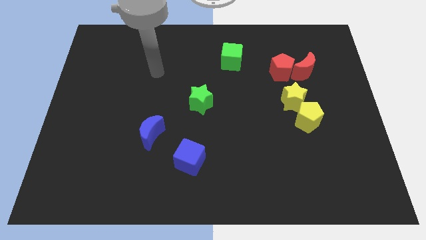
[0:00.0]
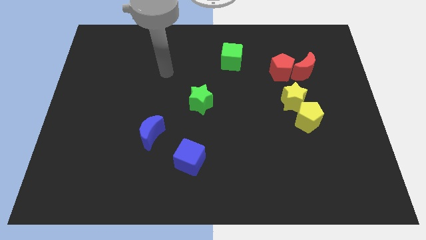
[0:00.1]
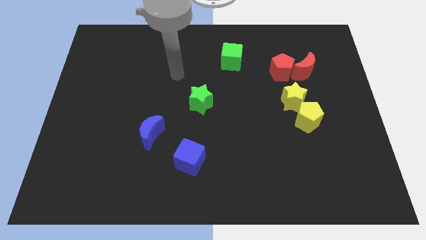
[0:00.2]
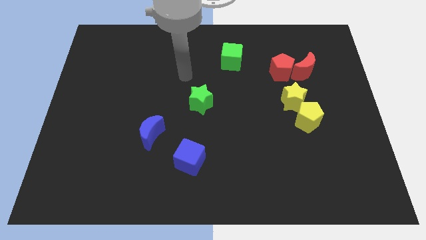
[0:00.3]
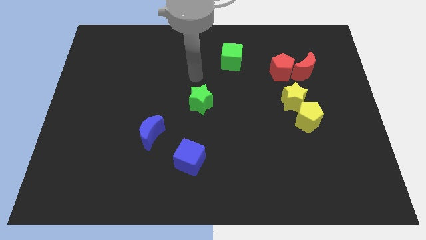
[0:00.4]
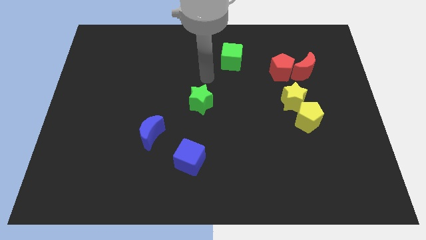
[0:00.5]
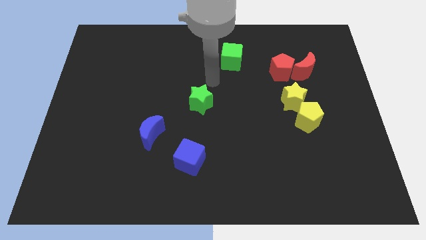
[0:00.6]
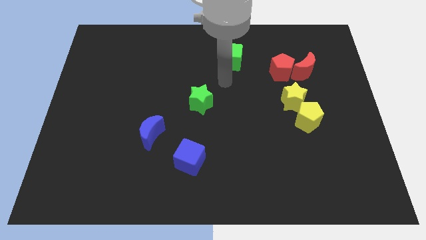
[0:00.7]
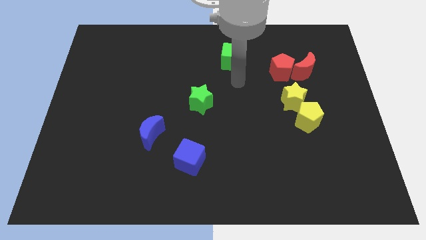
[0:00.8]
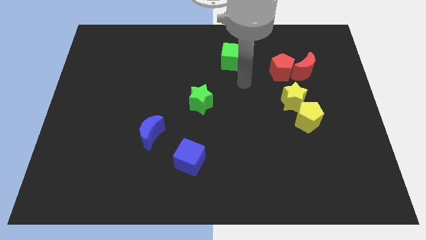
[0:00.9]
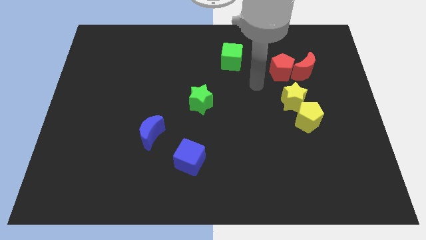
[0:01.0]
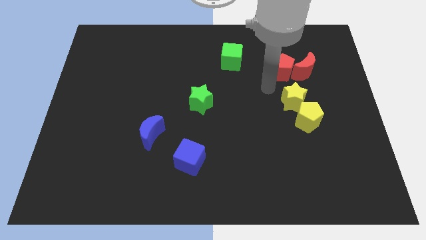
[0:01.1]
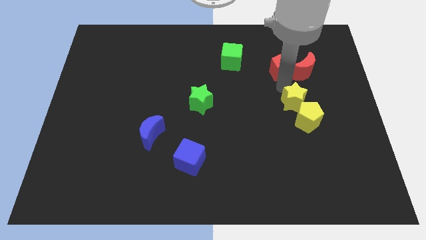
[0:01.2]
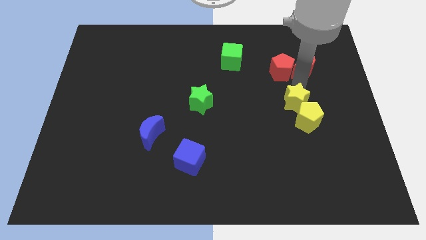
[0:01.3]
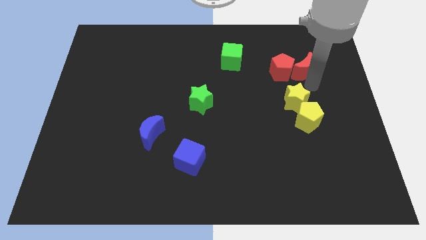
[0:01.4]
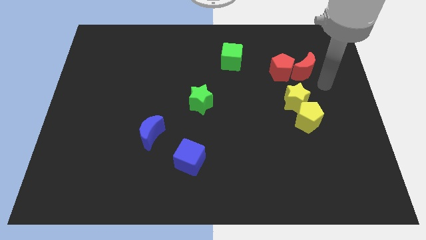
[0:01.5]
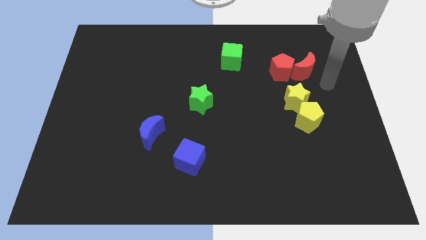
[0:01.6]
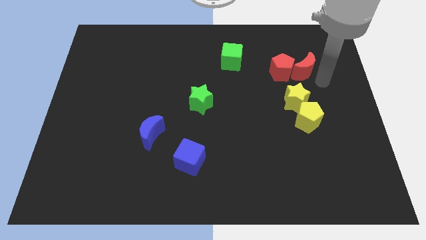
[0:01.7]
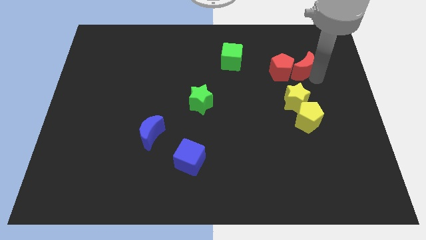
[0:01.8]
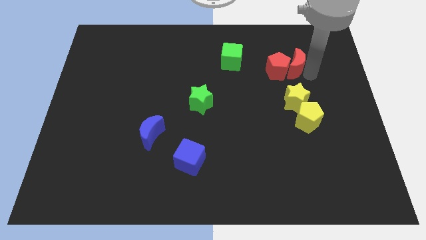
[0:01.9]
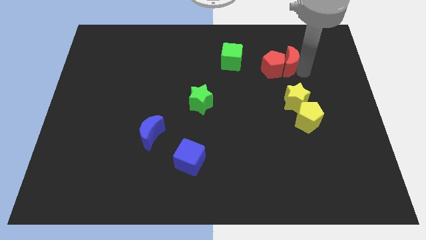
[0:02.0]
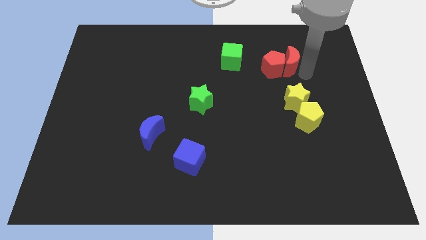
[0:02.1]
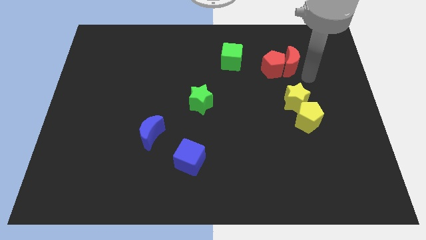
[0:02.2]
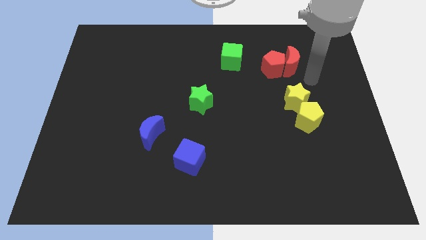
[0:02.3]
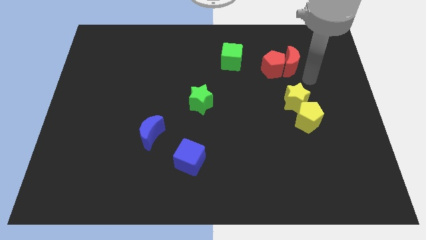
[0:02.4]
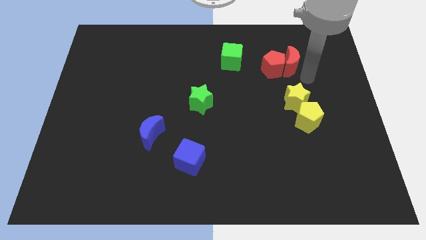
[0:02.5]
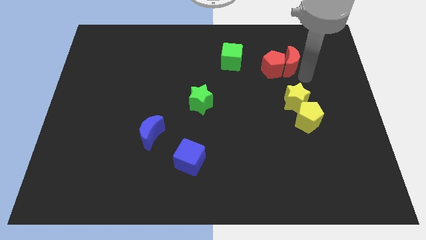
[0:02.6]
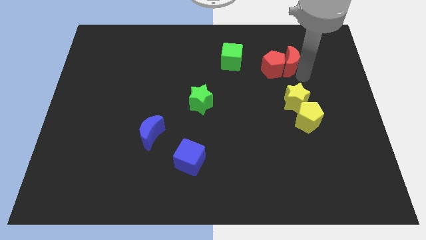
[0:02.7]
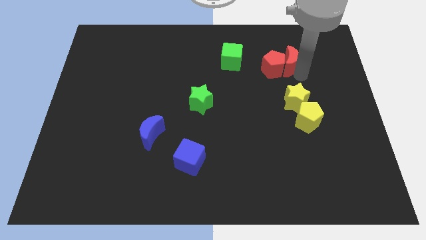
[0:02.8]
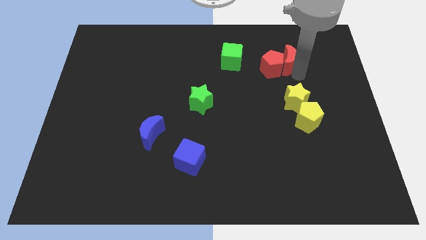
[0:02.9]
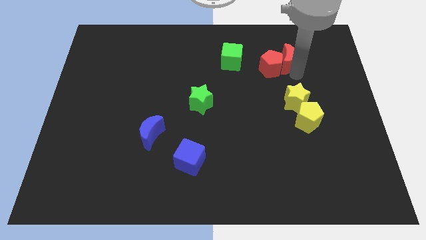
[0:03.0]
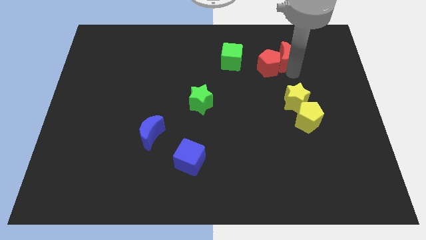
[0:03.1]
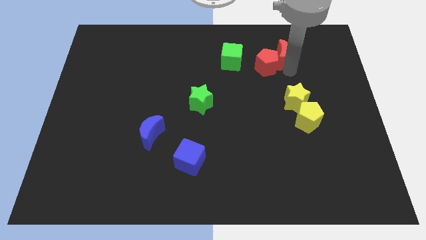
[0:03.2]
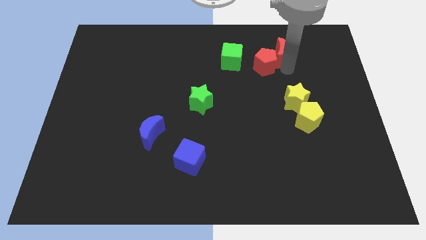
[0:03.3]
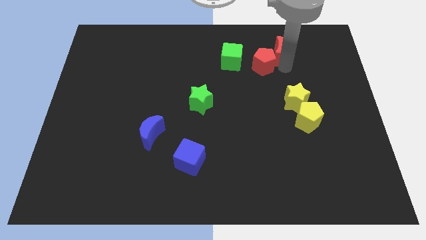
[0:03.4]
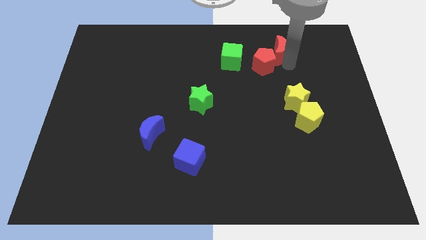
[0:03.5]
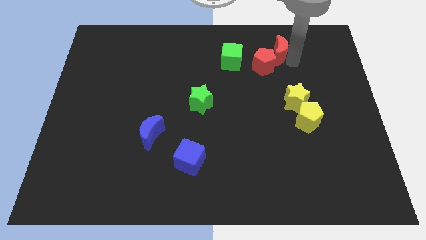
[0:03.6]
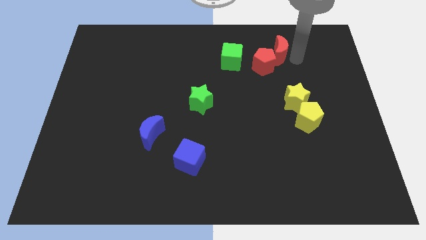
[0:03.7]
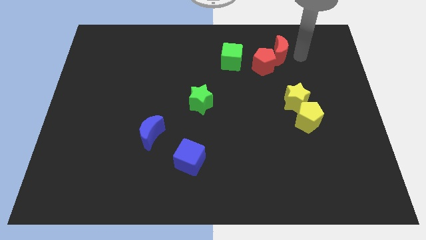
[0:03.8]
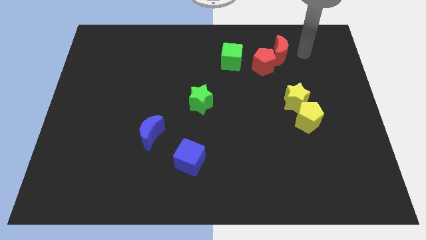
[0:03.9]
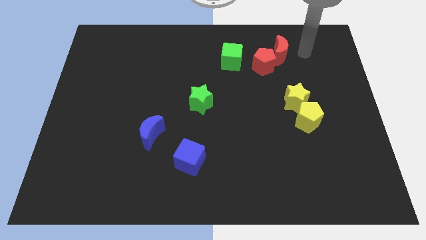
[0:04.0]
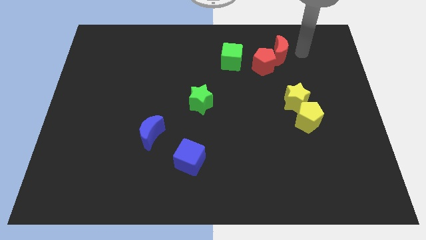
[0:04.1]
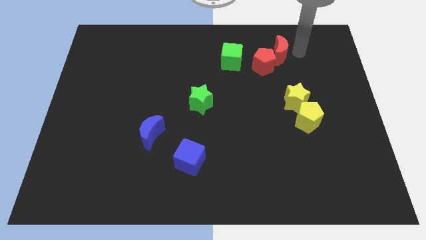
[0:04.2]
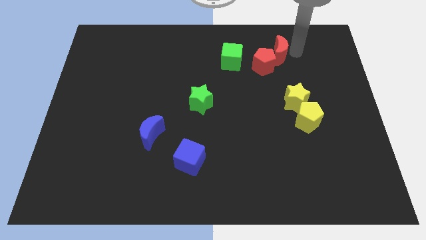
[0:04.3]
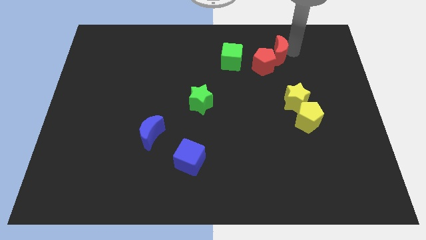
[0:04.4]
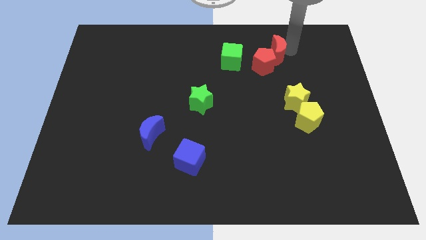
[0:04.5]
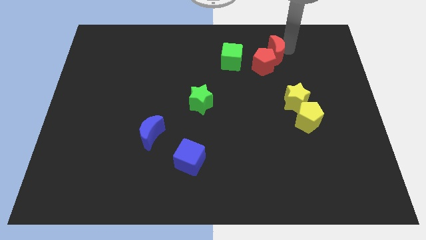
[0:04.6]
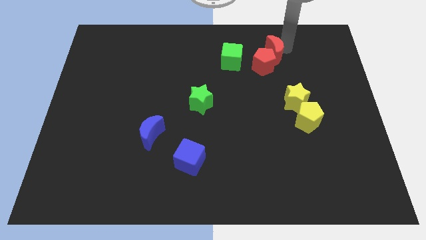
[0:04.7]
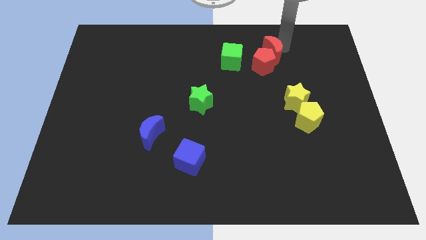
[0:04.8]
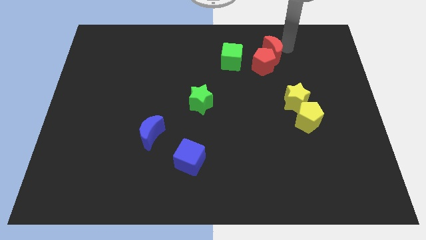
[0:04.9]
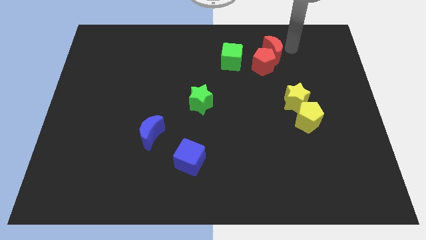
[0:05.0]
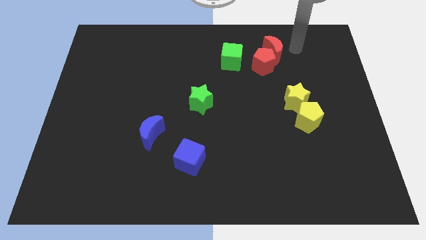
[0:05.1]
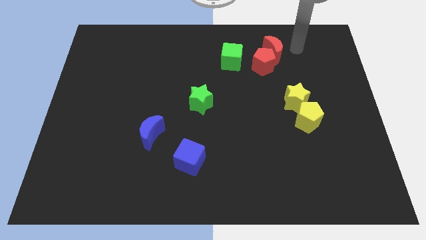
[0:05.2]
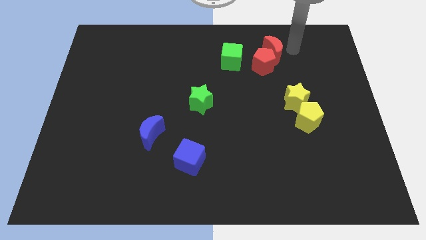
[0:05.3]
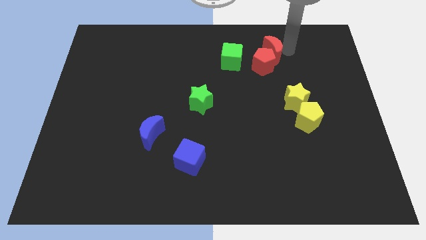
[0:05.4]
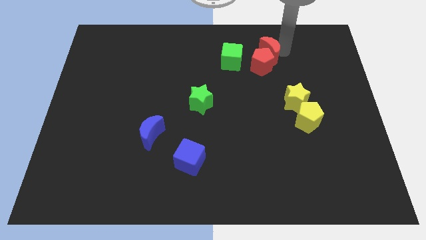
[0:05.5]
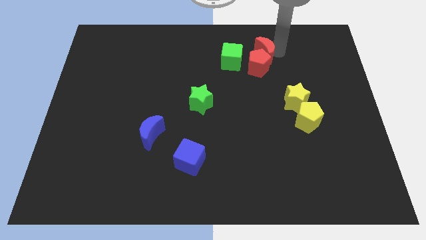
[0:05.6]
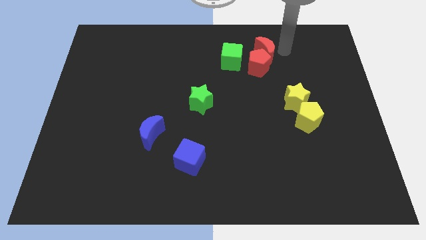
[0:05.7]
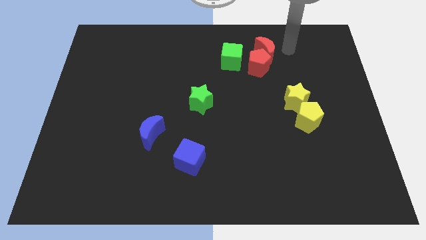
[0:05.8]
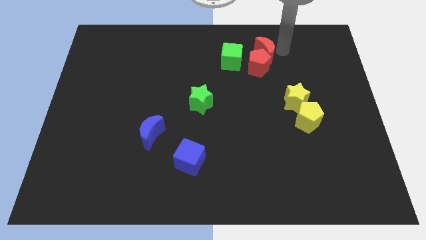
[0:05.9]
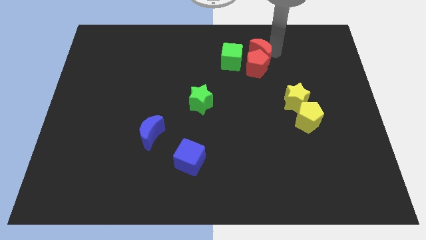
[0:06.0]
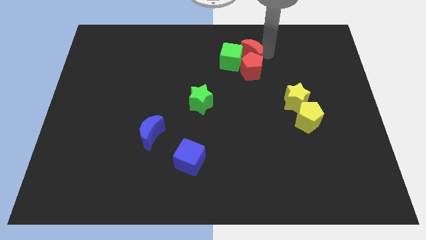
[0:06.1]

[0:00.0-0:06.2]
move the red moon next to the green cube

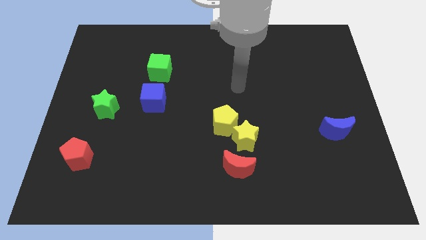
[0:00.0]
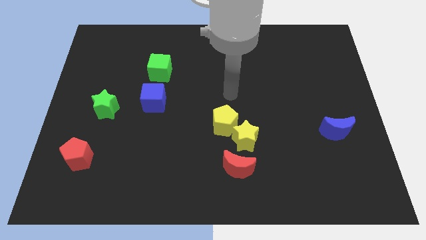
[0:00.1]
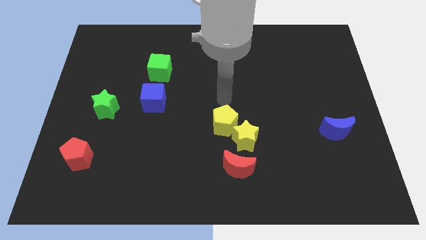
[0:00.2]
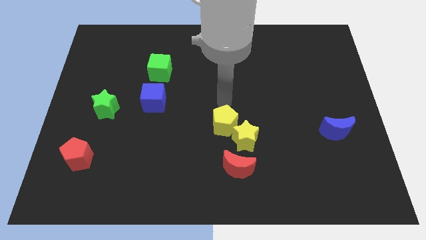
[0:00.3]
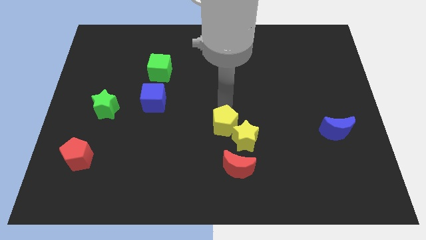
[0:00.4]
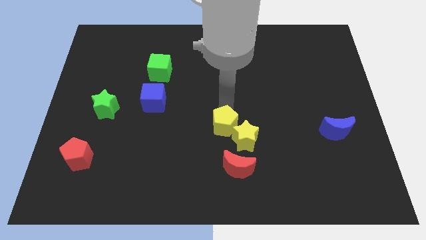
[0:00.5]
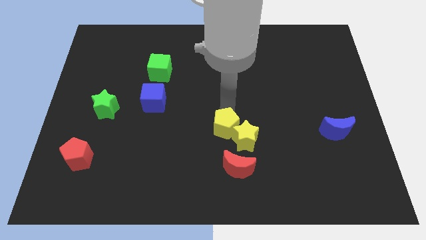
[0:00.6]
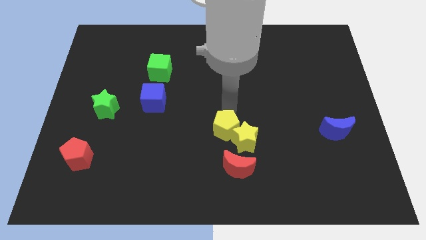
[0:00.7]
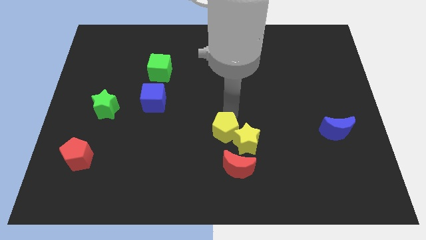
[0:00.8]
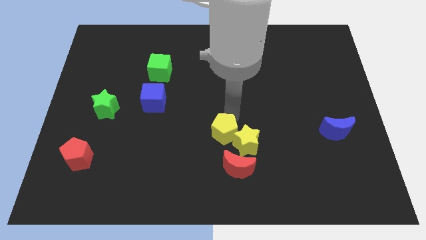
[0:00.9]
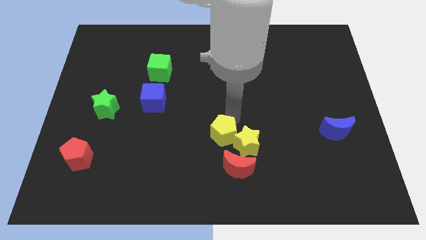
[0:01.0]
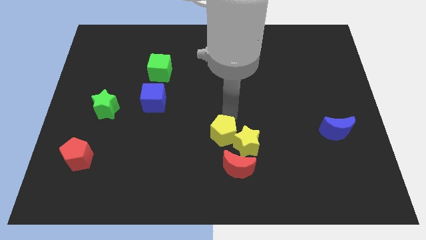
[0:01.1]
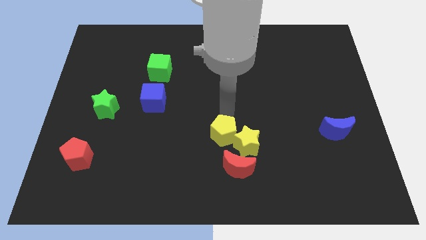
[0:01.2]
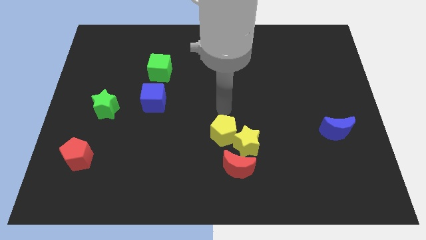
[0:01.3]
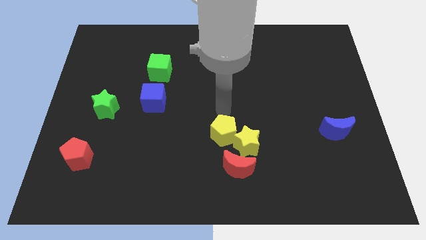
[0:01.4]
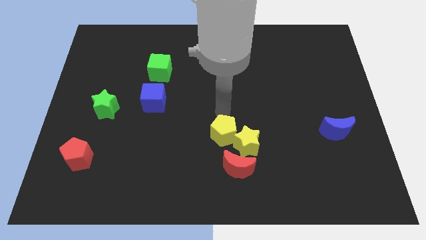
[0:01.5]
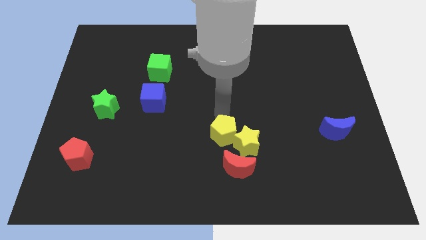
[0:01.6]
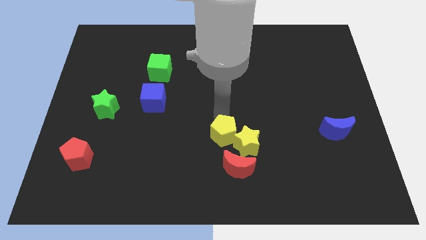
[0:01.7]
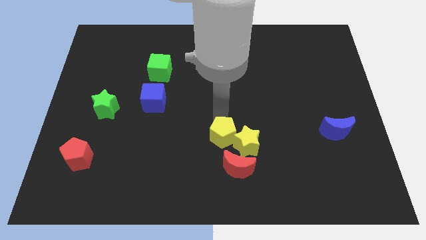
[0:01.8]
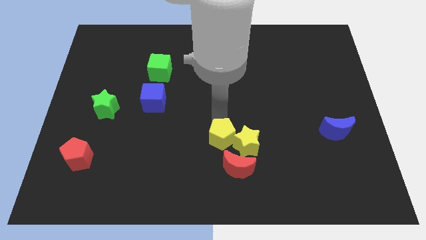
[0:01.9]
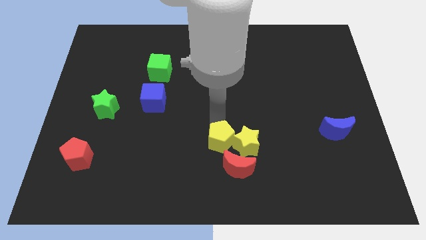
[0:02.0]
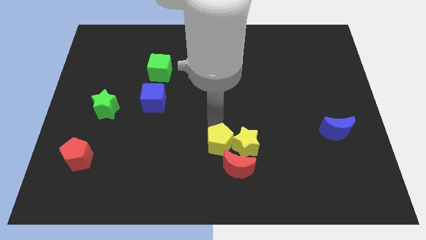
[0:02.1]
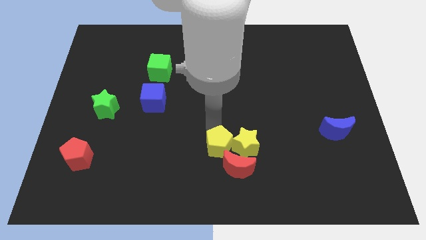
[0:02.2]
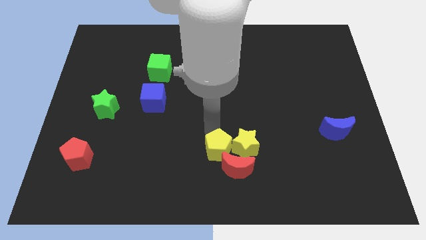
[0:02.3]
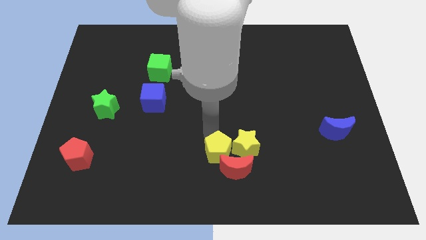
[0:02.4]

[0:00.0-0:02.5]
slide the yellow pentagon to the red moon
